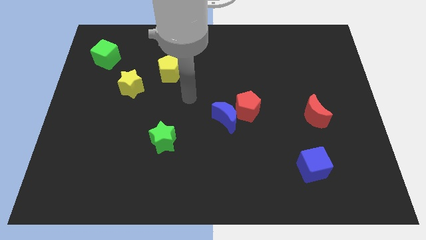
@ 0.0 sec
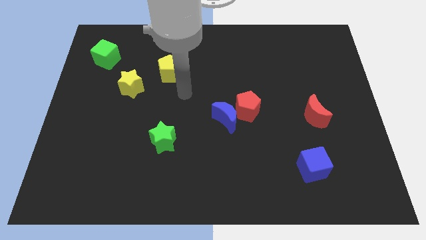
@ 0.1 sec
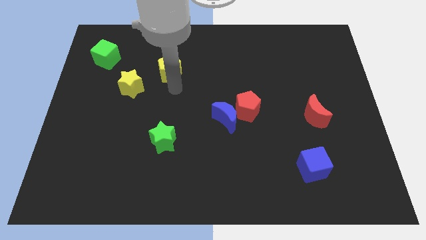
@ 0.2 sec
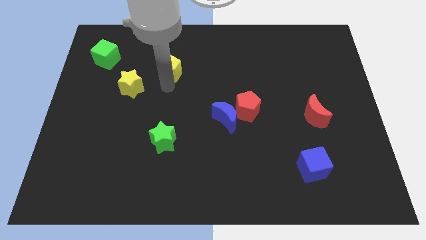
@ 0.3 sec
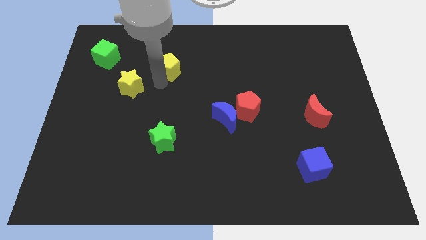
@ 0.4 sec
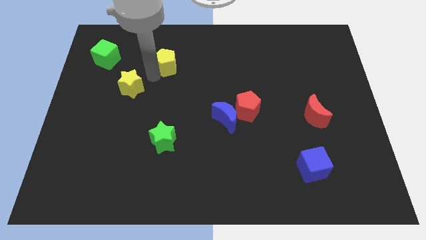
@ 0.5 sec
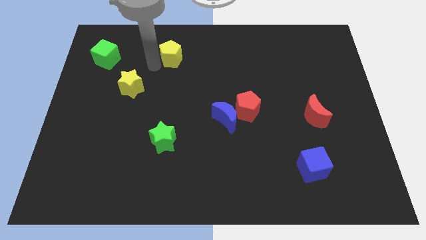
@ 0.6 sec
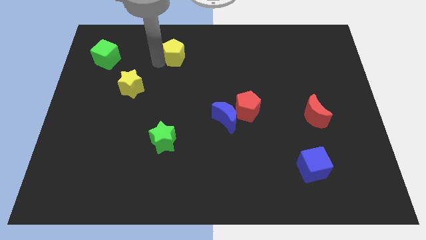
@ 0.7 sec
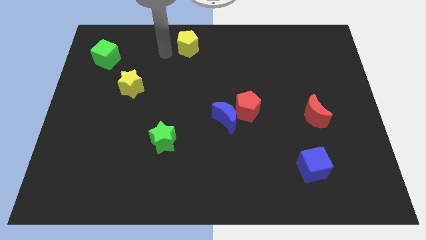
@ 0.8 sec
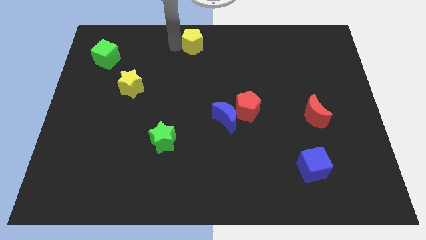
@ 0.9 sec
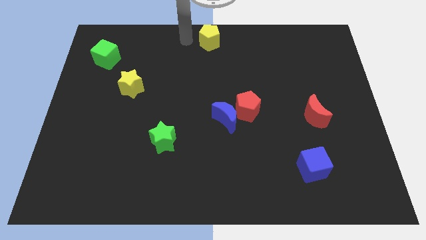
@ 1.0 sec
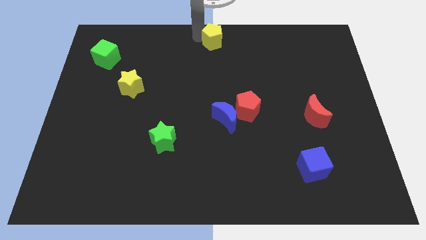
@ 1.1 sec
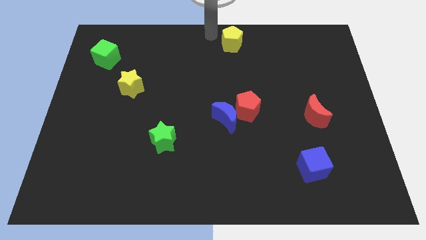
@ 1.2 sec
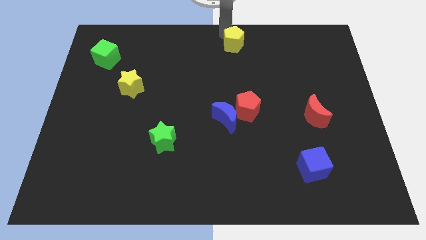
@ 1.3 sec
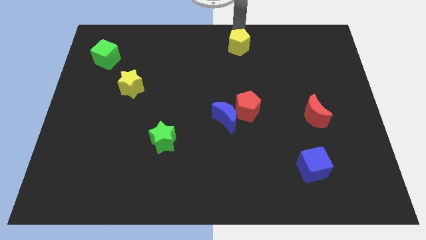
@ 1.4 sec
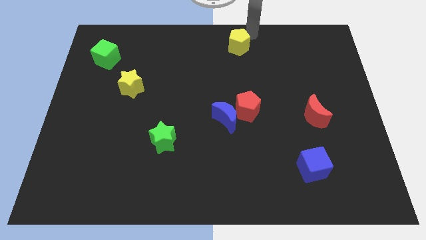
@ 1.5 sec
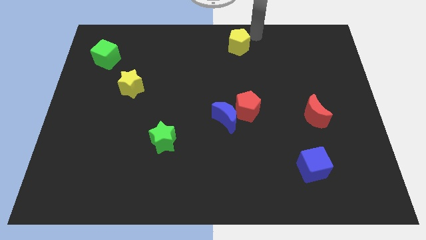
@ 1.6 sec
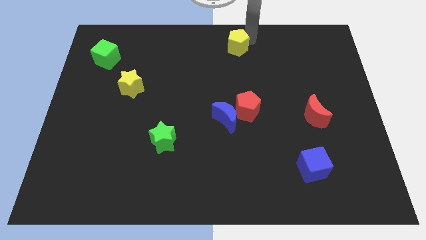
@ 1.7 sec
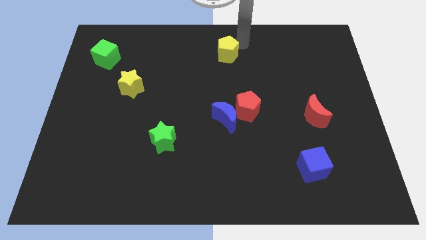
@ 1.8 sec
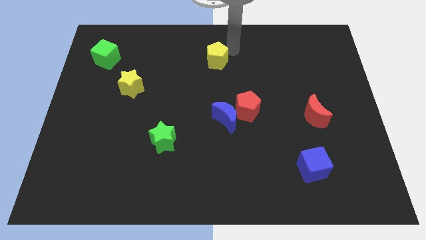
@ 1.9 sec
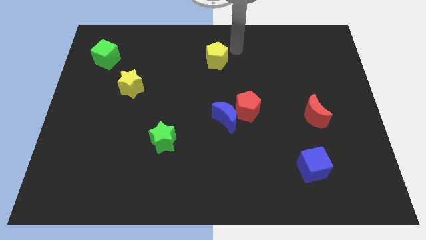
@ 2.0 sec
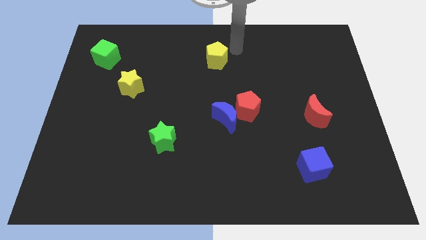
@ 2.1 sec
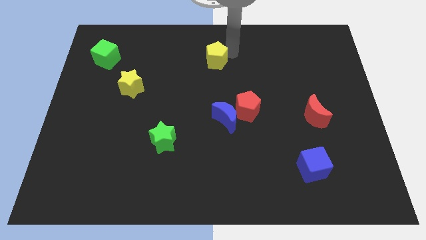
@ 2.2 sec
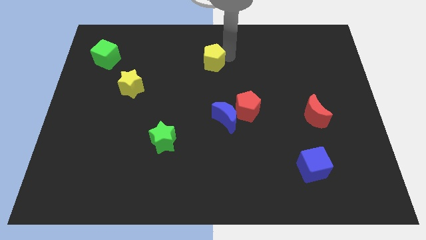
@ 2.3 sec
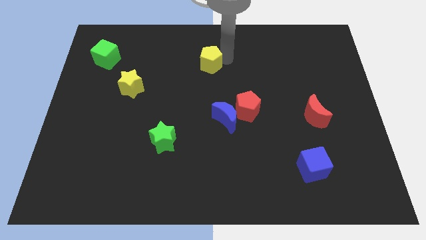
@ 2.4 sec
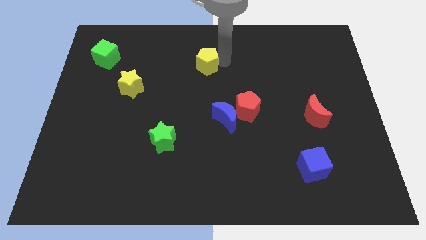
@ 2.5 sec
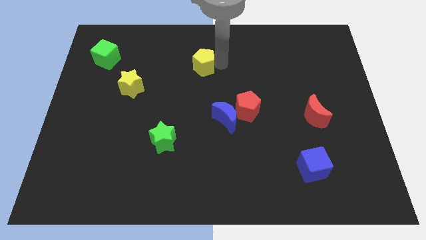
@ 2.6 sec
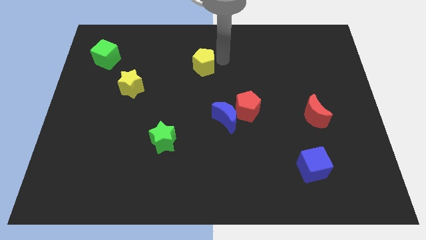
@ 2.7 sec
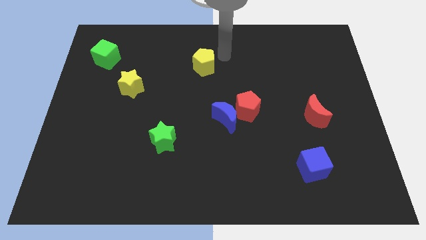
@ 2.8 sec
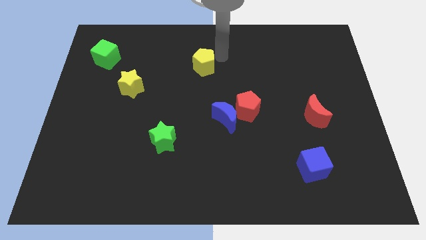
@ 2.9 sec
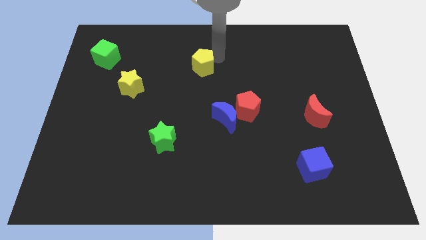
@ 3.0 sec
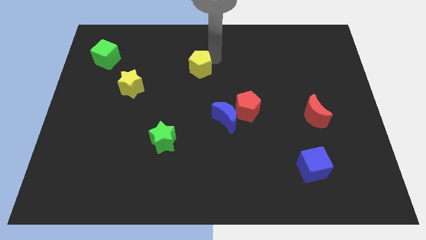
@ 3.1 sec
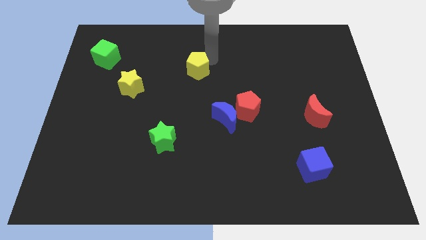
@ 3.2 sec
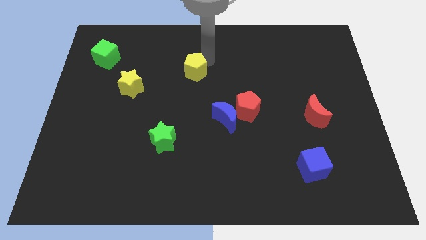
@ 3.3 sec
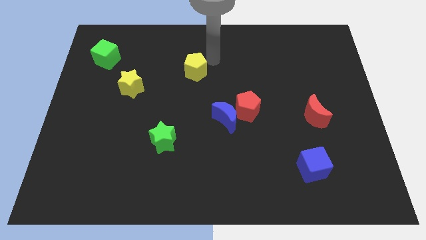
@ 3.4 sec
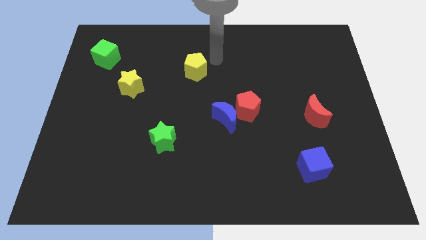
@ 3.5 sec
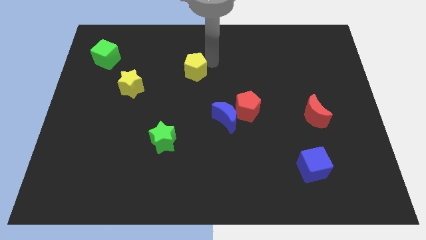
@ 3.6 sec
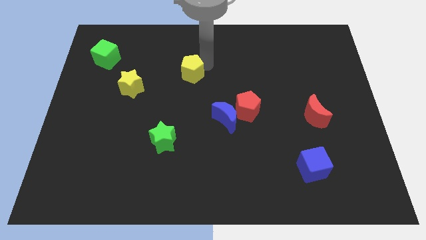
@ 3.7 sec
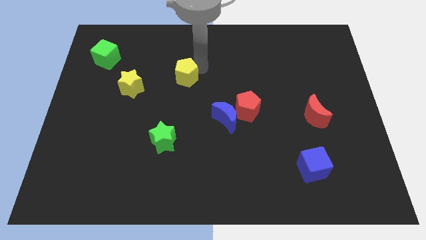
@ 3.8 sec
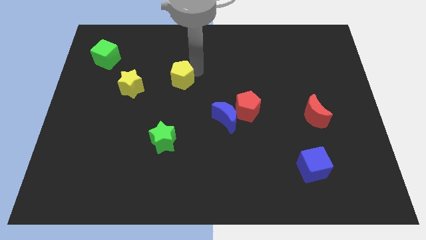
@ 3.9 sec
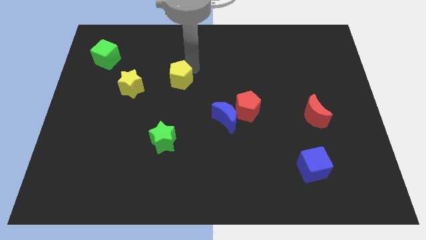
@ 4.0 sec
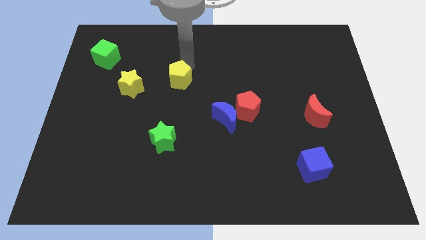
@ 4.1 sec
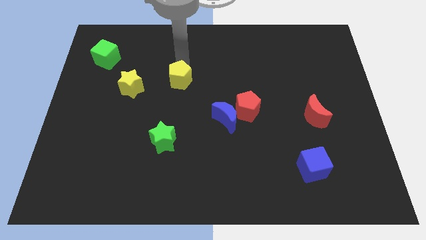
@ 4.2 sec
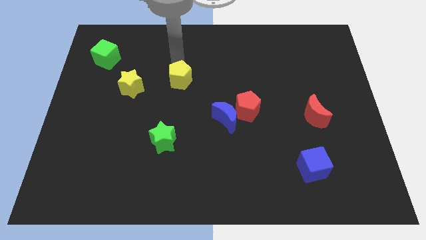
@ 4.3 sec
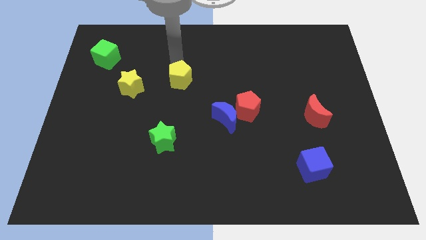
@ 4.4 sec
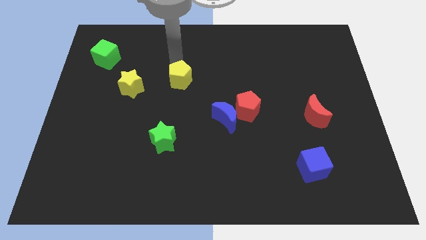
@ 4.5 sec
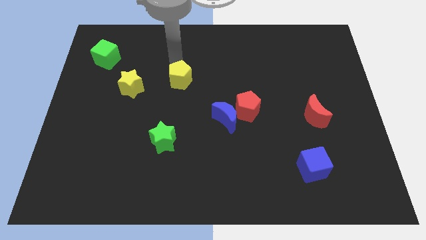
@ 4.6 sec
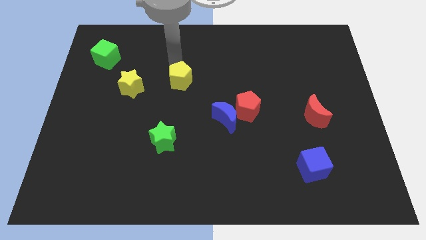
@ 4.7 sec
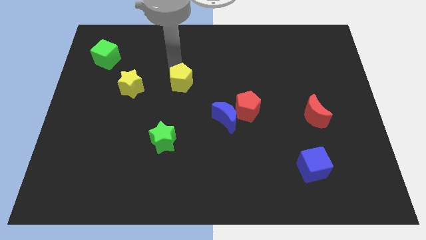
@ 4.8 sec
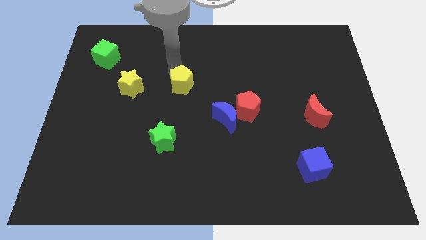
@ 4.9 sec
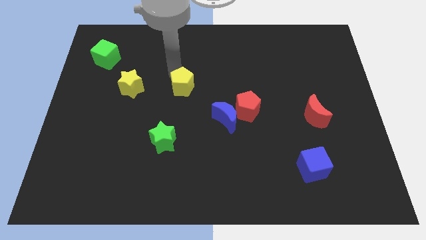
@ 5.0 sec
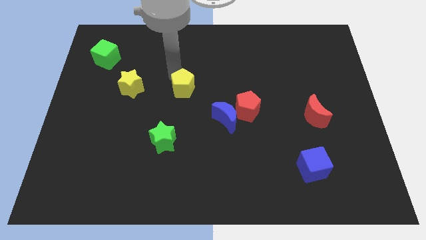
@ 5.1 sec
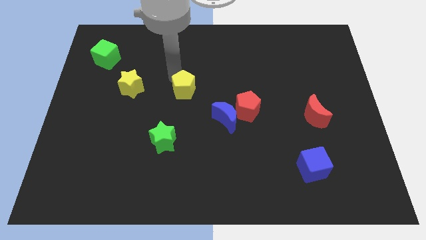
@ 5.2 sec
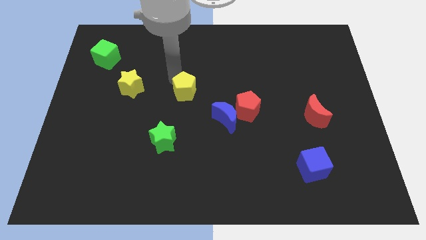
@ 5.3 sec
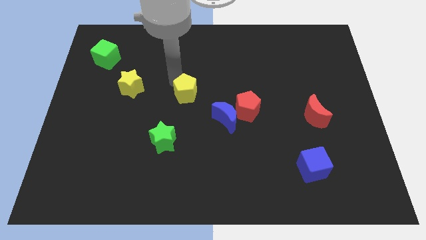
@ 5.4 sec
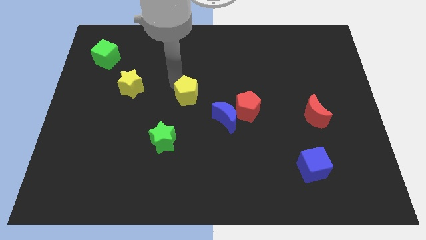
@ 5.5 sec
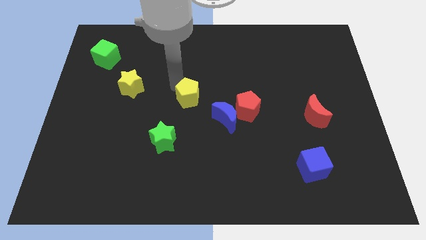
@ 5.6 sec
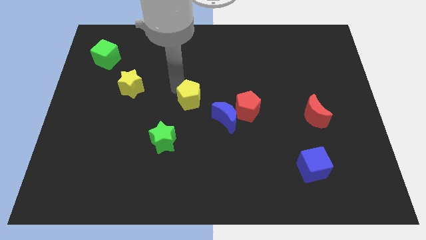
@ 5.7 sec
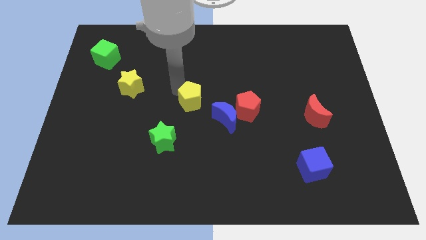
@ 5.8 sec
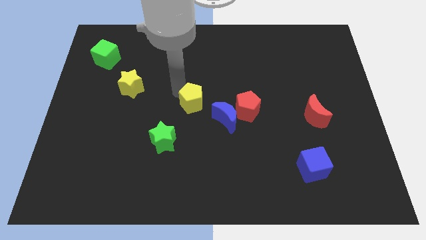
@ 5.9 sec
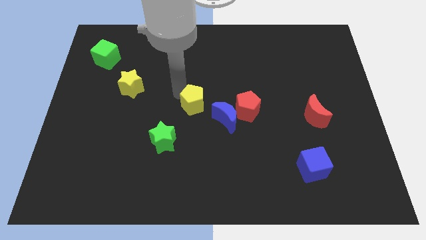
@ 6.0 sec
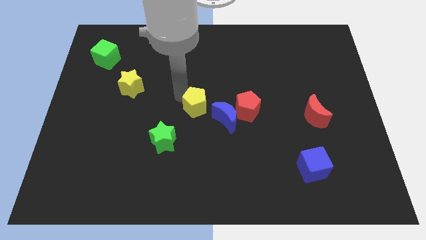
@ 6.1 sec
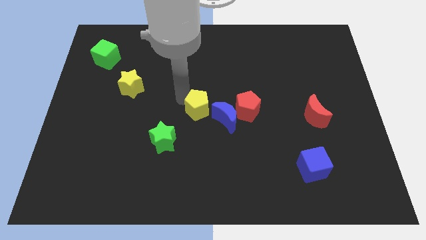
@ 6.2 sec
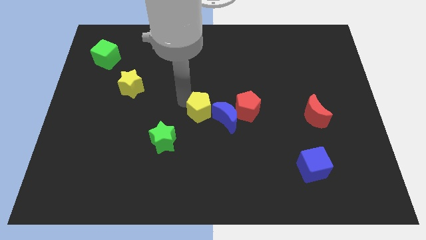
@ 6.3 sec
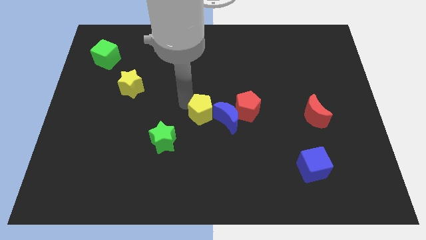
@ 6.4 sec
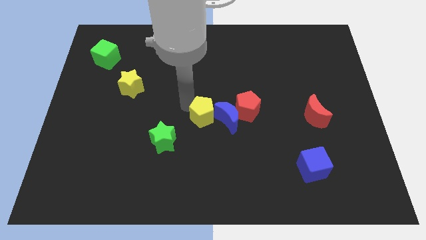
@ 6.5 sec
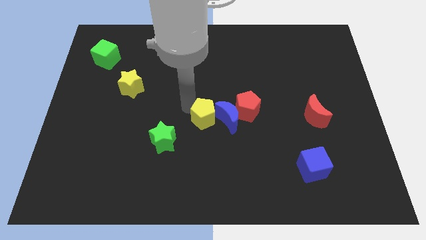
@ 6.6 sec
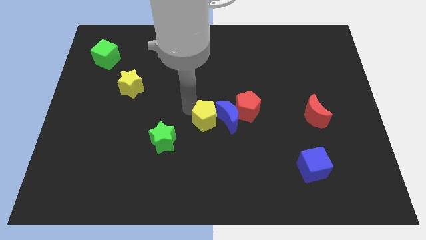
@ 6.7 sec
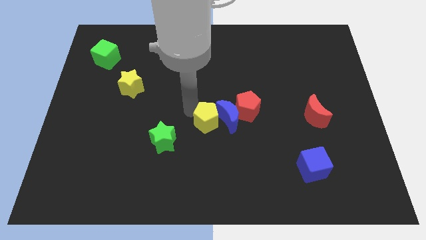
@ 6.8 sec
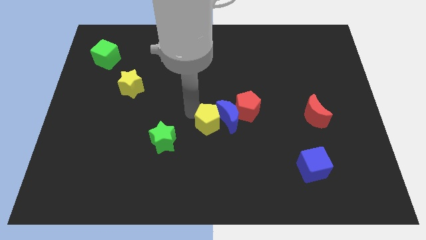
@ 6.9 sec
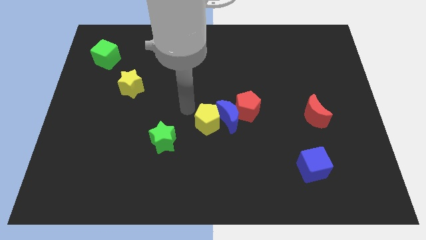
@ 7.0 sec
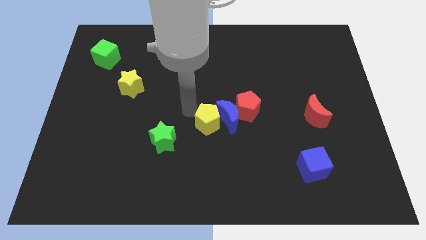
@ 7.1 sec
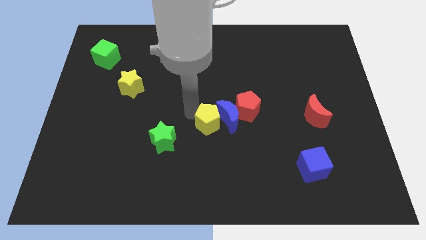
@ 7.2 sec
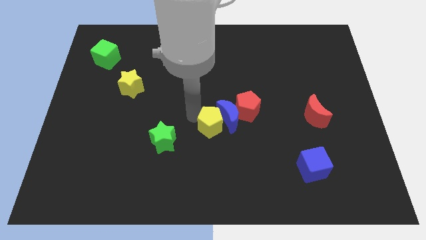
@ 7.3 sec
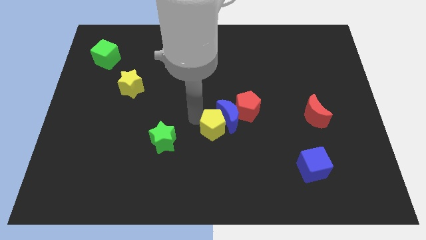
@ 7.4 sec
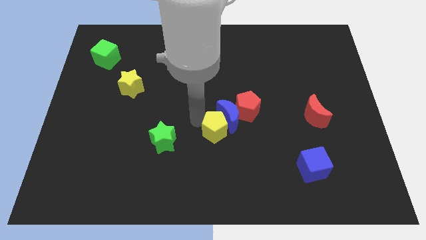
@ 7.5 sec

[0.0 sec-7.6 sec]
push the yellow pentagon diagonally down and right

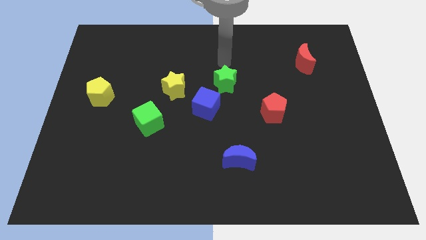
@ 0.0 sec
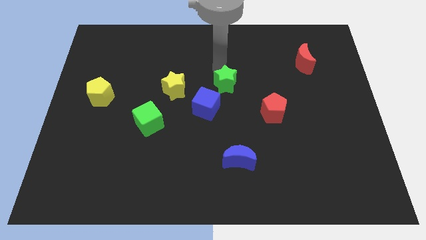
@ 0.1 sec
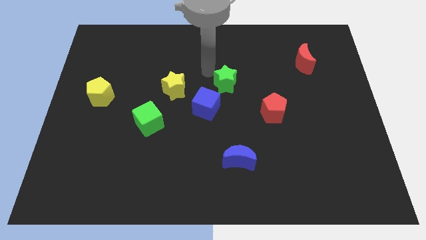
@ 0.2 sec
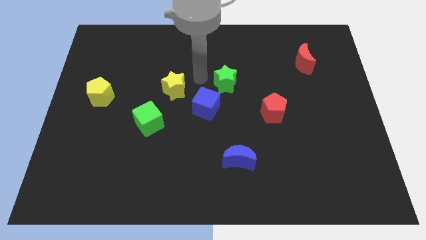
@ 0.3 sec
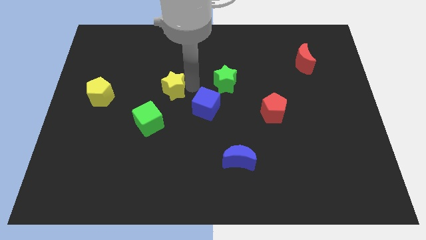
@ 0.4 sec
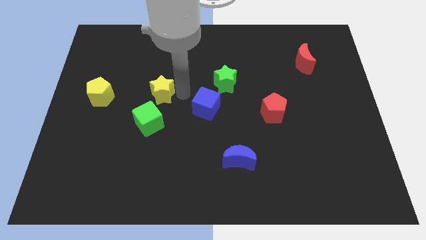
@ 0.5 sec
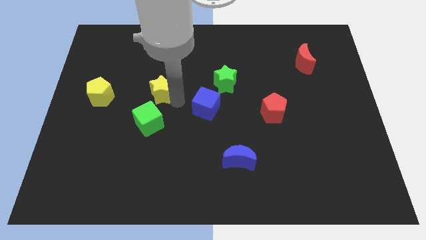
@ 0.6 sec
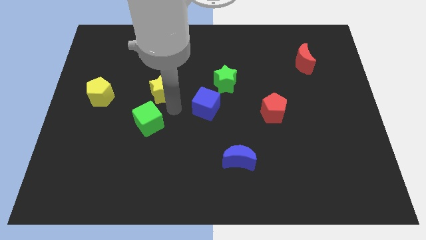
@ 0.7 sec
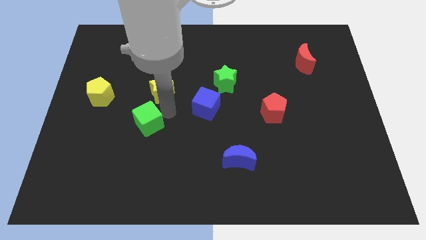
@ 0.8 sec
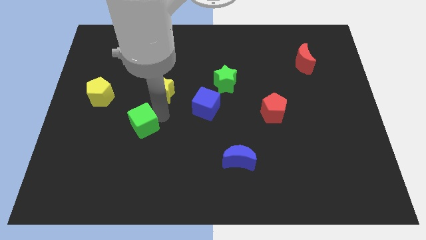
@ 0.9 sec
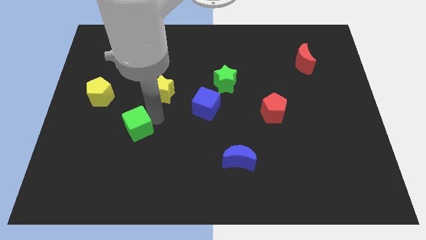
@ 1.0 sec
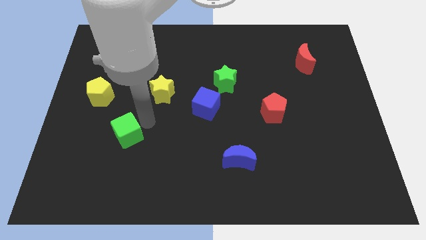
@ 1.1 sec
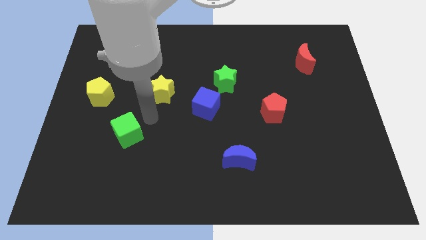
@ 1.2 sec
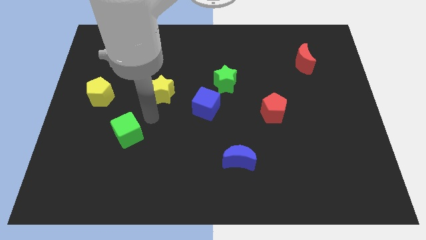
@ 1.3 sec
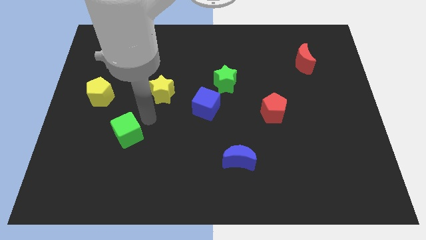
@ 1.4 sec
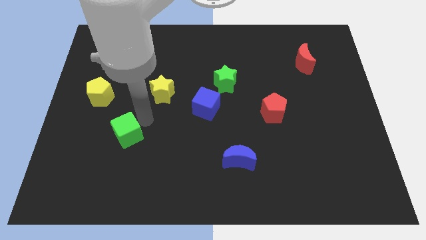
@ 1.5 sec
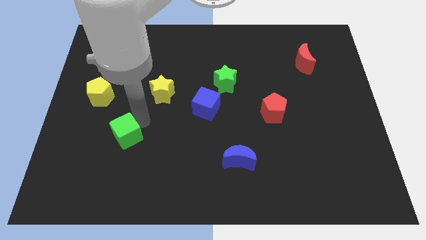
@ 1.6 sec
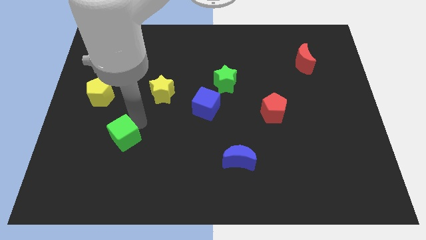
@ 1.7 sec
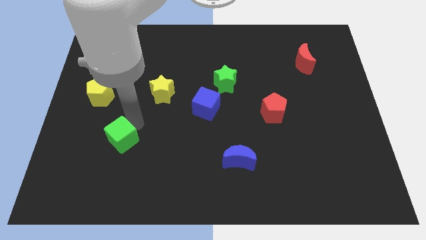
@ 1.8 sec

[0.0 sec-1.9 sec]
push the green cube a little bit downwards and left
